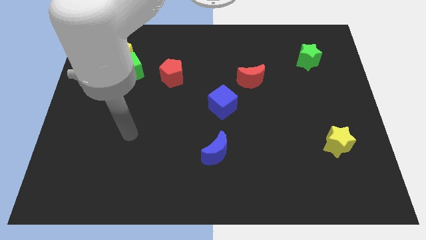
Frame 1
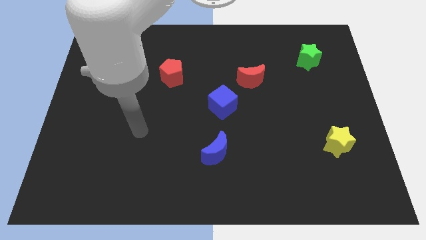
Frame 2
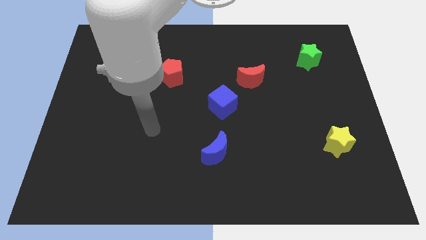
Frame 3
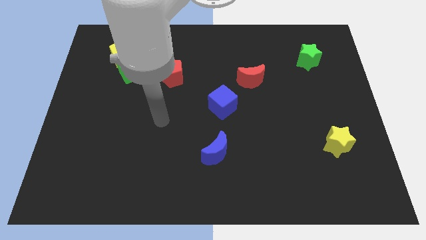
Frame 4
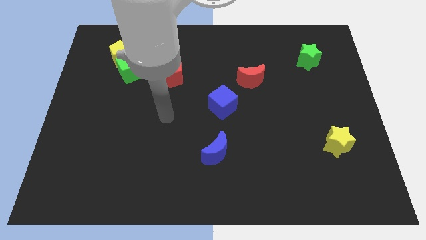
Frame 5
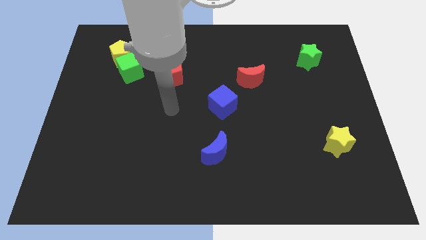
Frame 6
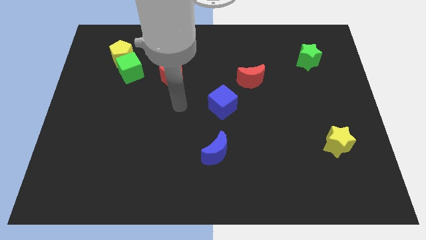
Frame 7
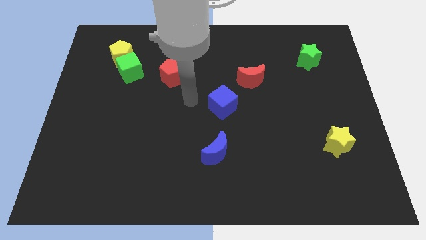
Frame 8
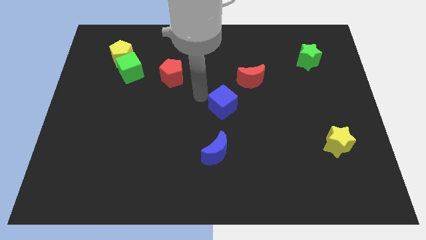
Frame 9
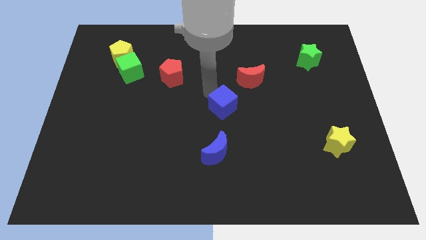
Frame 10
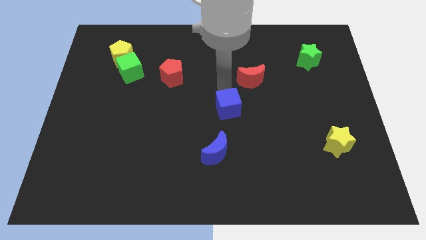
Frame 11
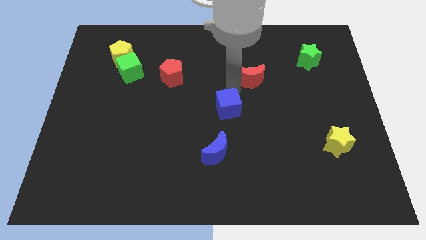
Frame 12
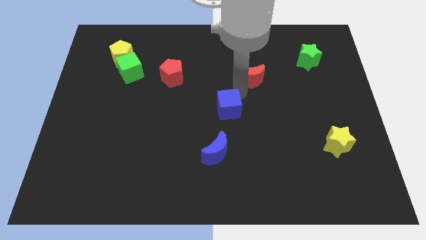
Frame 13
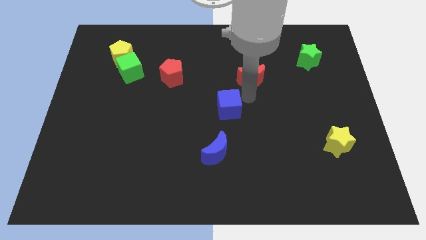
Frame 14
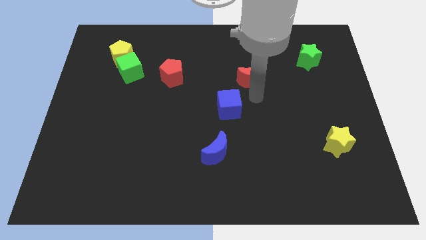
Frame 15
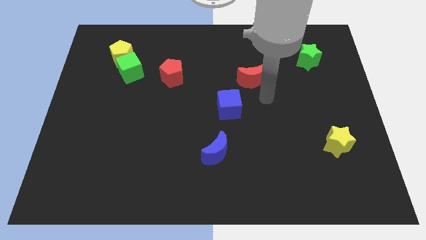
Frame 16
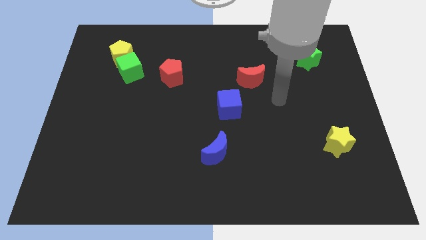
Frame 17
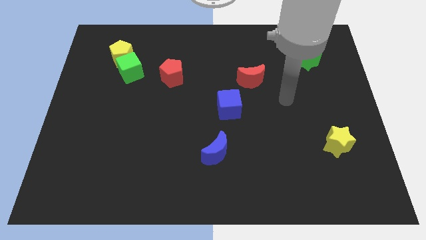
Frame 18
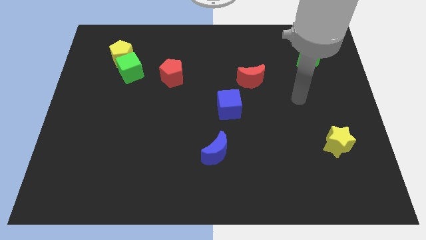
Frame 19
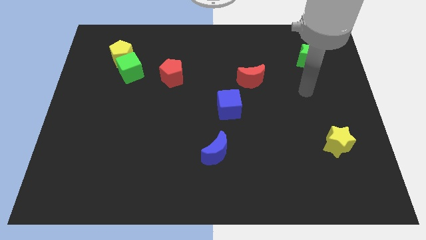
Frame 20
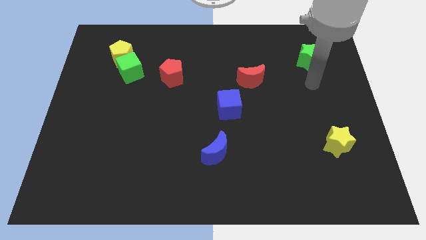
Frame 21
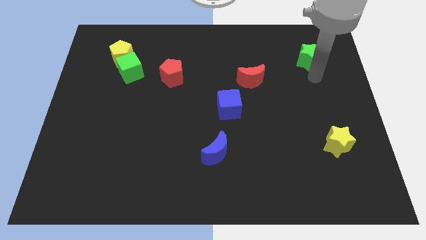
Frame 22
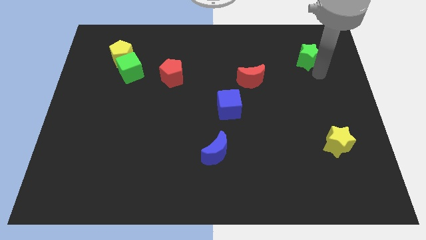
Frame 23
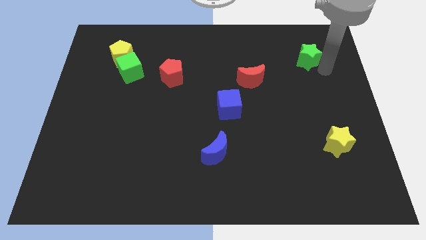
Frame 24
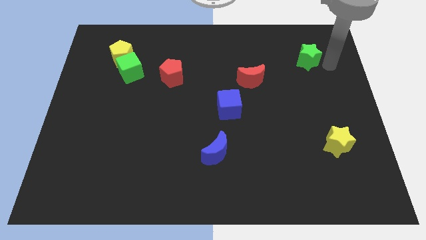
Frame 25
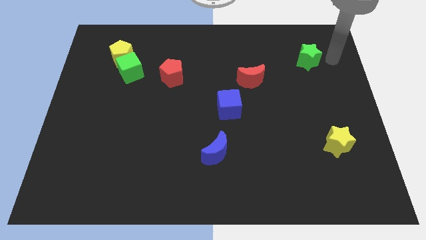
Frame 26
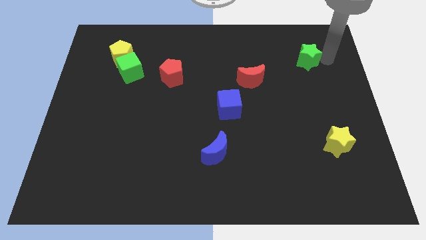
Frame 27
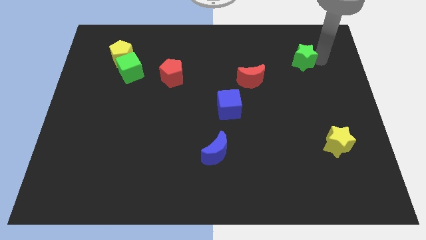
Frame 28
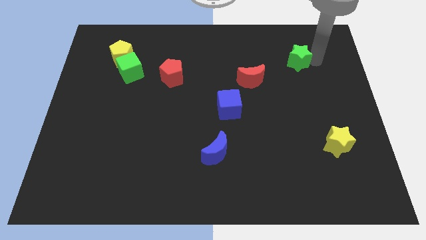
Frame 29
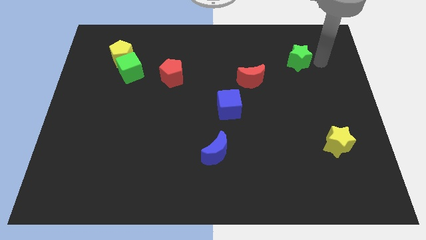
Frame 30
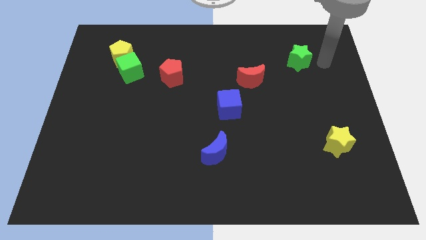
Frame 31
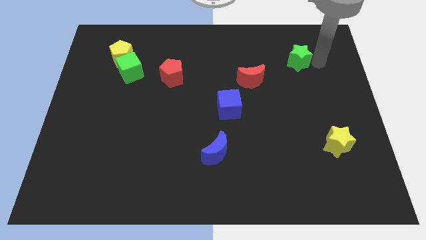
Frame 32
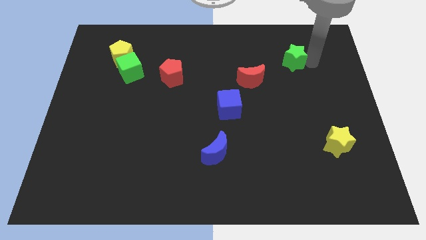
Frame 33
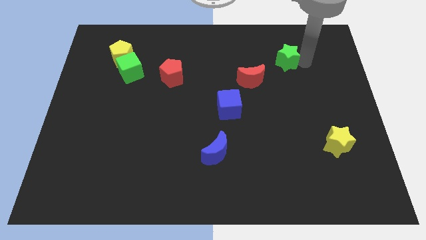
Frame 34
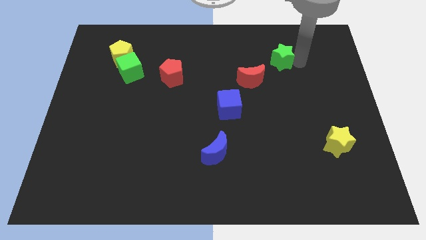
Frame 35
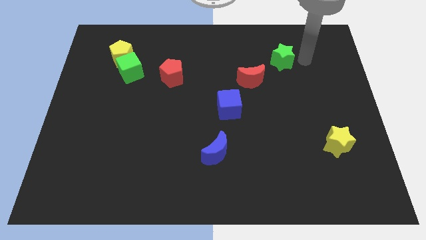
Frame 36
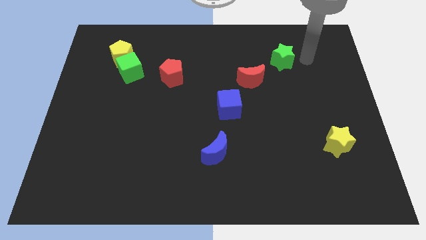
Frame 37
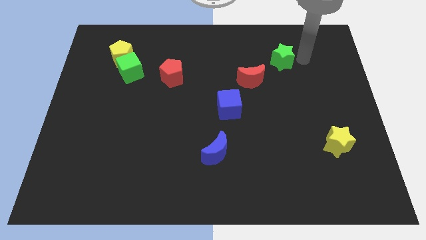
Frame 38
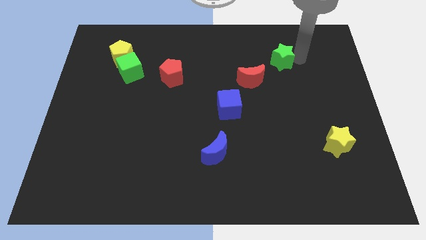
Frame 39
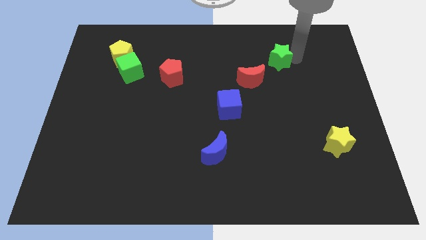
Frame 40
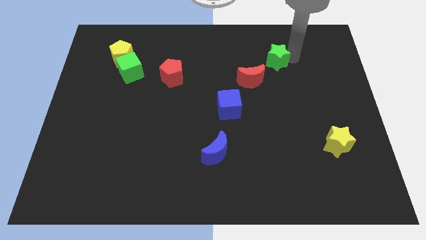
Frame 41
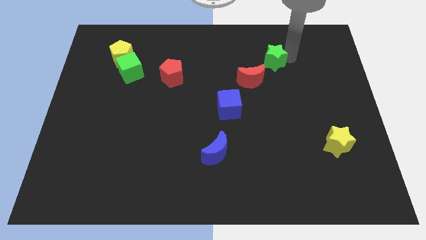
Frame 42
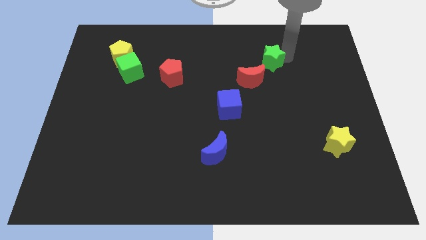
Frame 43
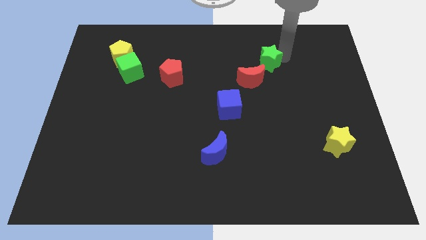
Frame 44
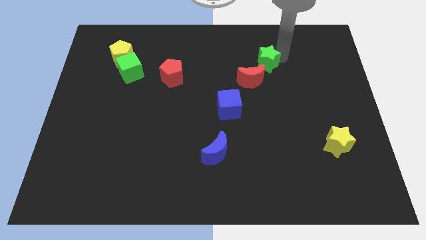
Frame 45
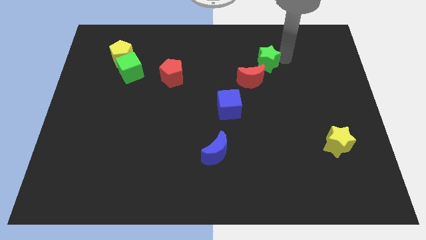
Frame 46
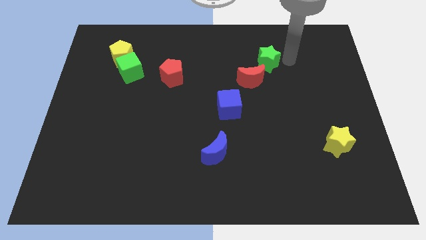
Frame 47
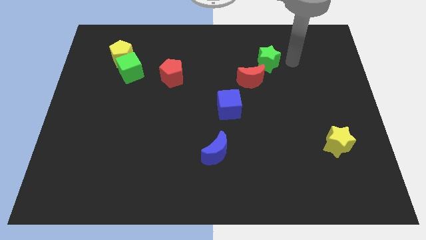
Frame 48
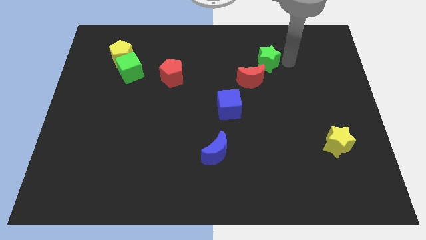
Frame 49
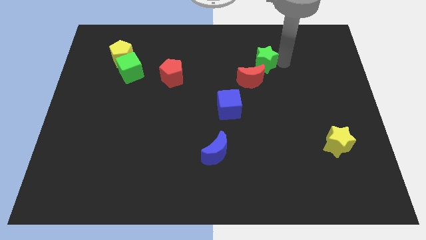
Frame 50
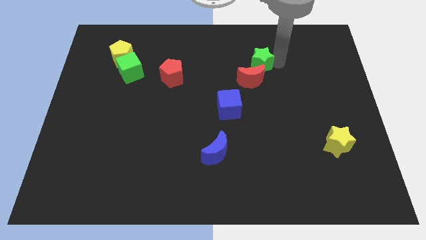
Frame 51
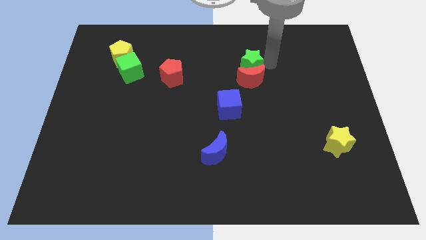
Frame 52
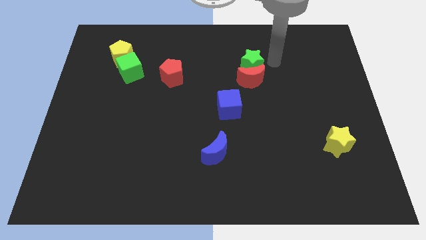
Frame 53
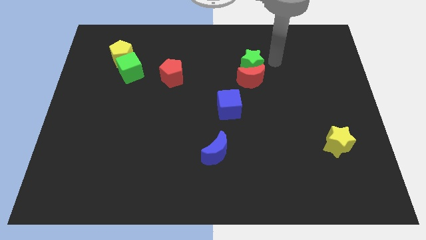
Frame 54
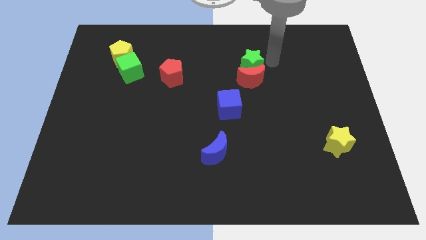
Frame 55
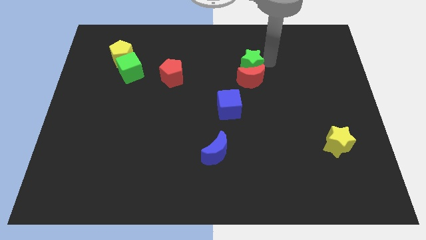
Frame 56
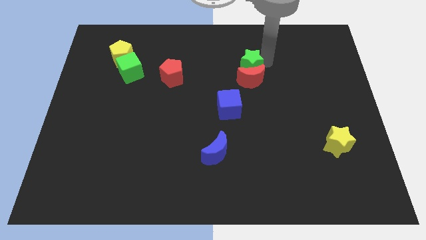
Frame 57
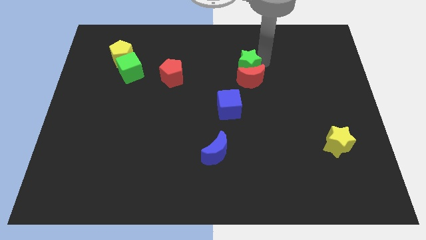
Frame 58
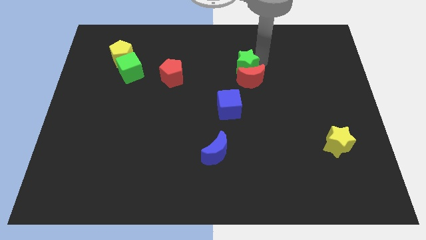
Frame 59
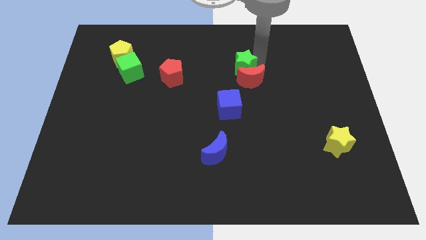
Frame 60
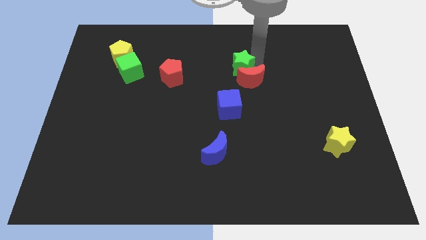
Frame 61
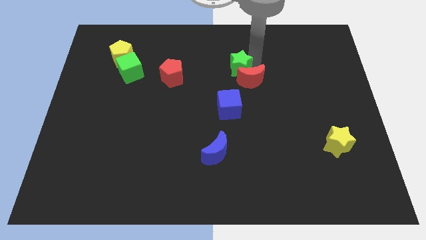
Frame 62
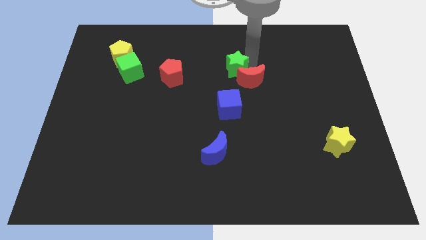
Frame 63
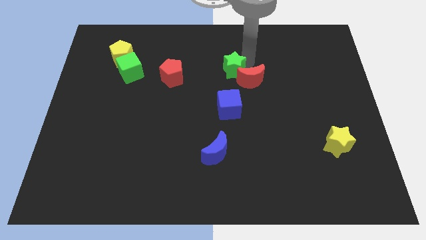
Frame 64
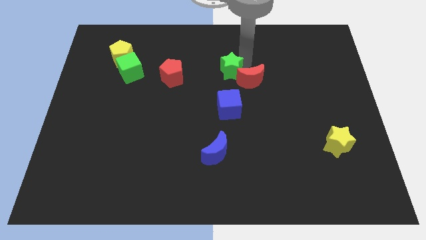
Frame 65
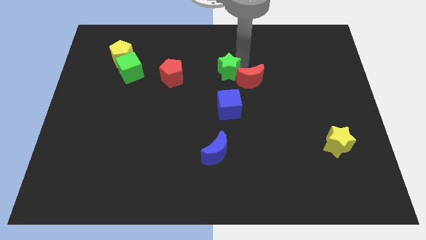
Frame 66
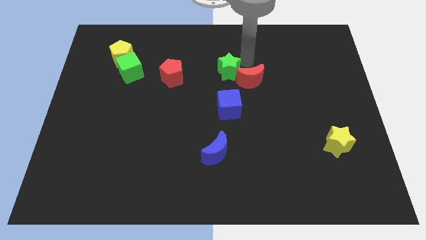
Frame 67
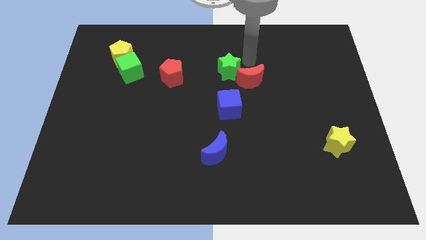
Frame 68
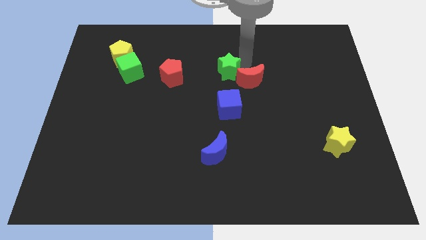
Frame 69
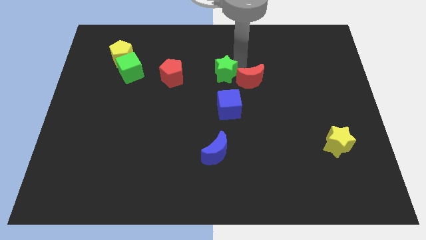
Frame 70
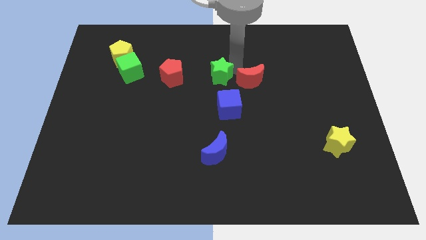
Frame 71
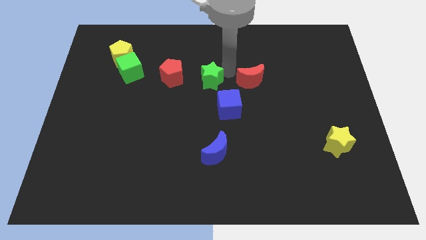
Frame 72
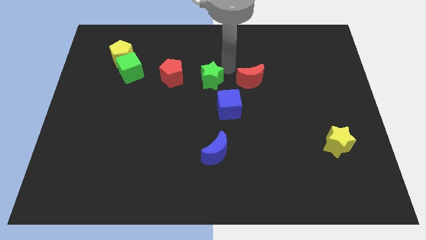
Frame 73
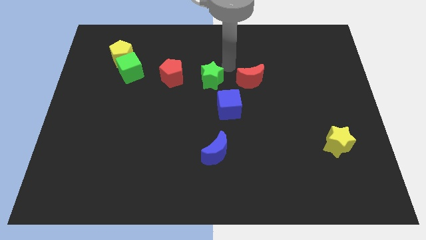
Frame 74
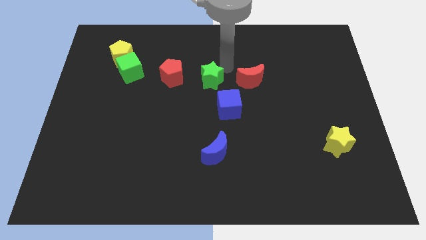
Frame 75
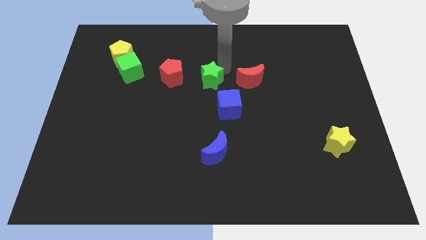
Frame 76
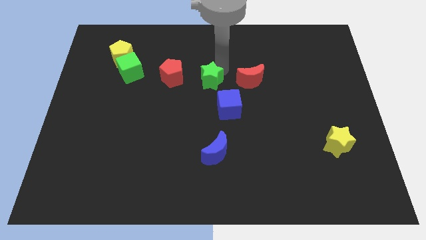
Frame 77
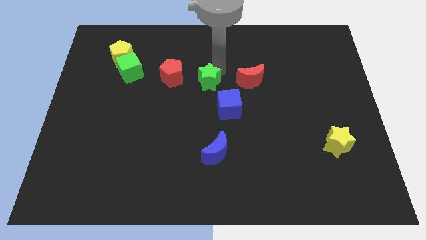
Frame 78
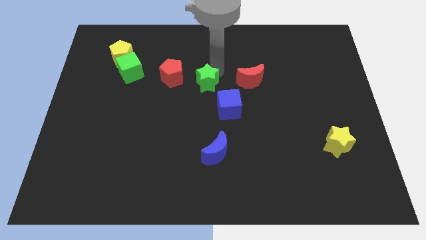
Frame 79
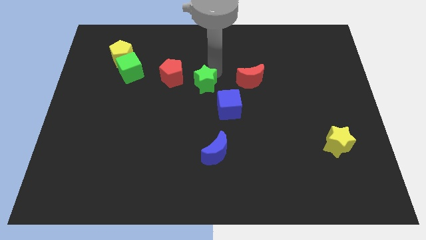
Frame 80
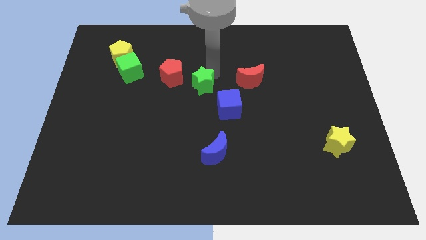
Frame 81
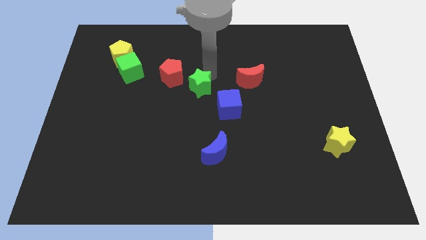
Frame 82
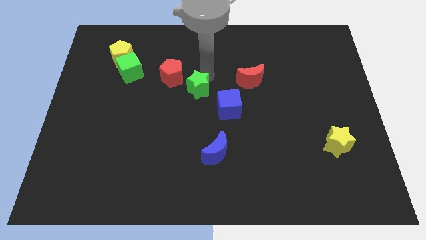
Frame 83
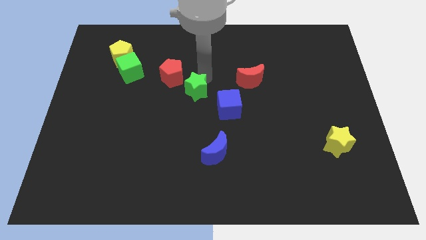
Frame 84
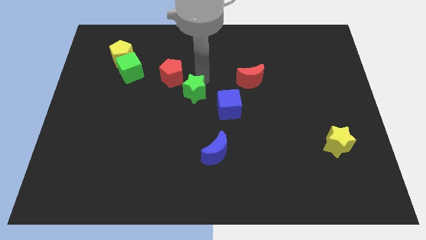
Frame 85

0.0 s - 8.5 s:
put the green star just left of the blue cube
